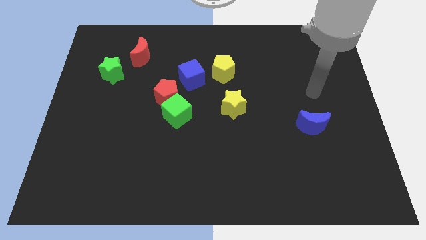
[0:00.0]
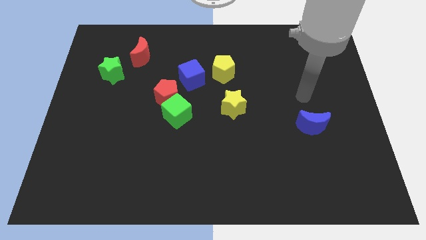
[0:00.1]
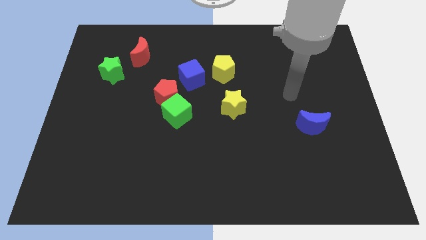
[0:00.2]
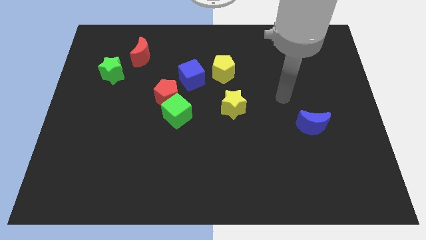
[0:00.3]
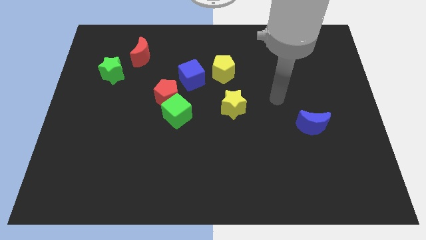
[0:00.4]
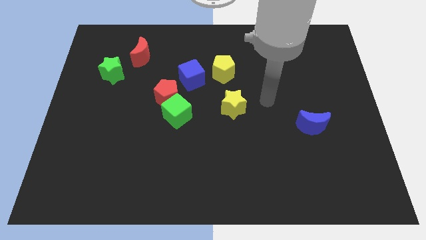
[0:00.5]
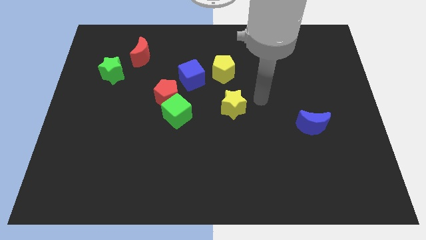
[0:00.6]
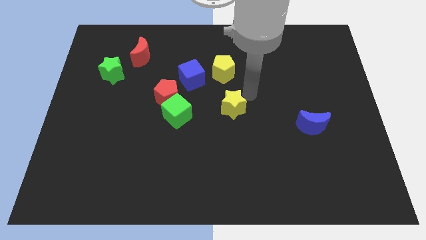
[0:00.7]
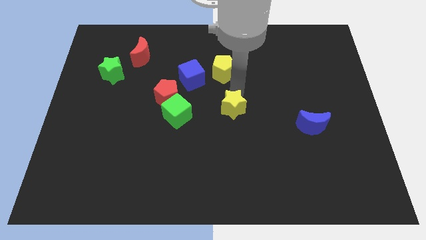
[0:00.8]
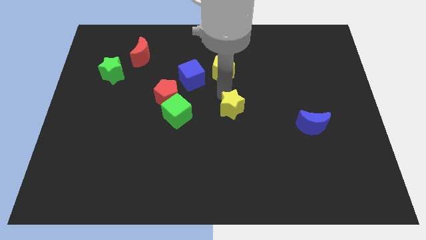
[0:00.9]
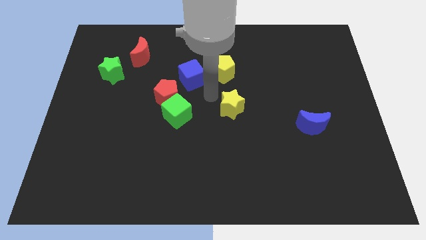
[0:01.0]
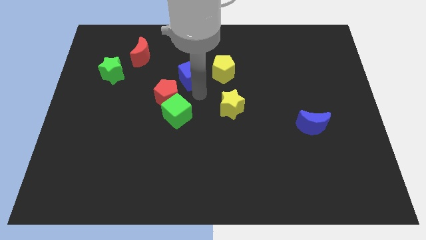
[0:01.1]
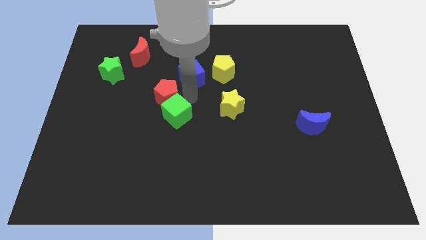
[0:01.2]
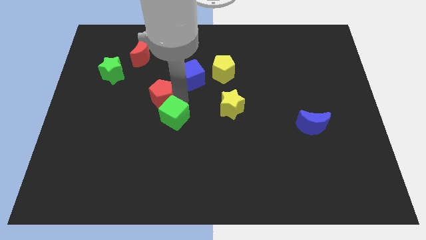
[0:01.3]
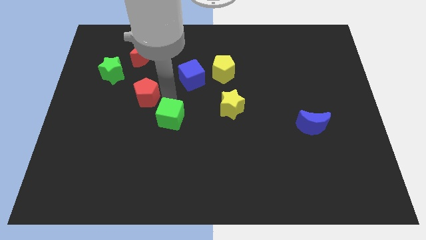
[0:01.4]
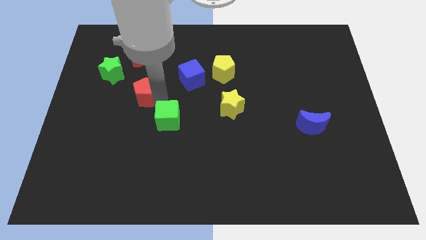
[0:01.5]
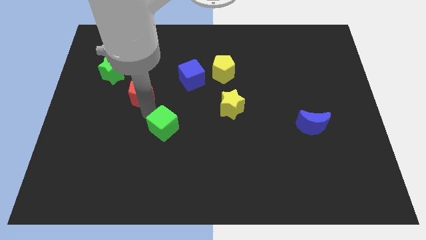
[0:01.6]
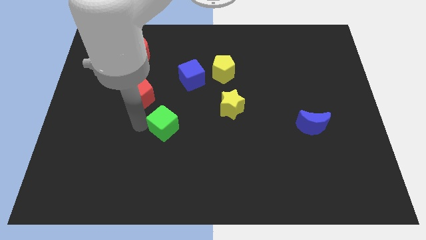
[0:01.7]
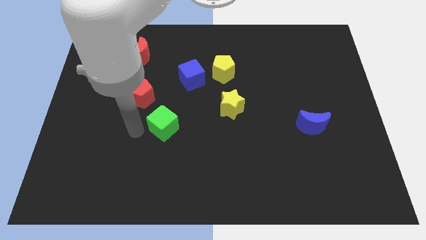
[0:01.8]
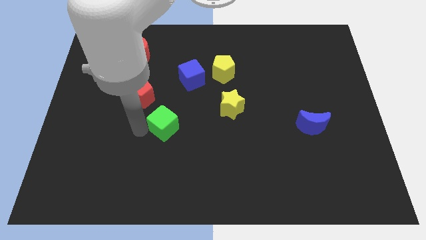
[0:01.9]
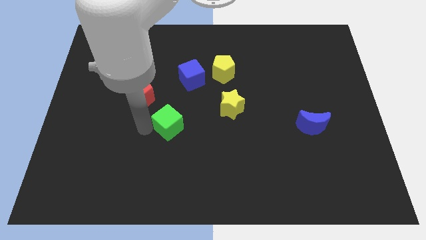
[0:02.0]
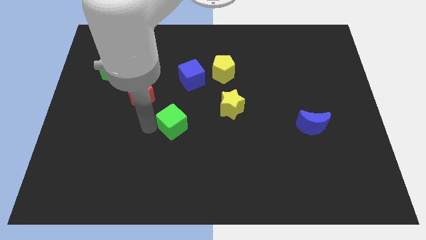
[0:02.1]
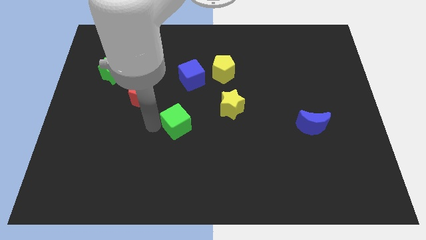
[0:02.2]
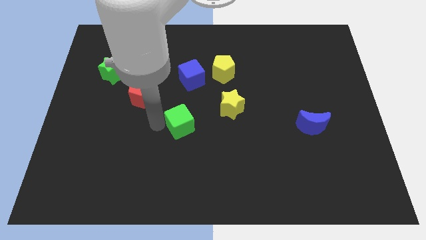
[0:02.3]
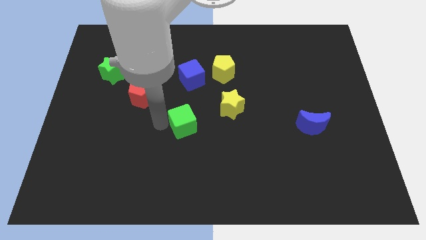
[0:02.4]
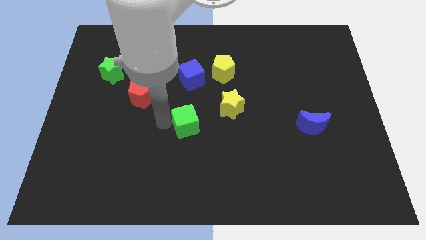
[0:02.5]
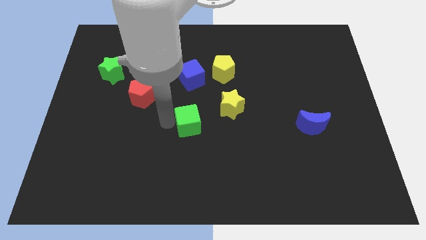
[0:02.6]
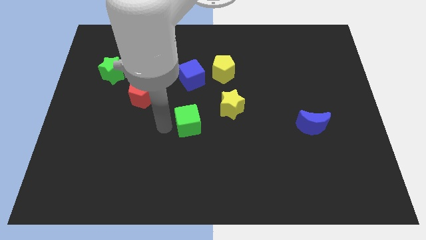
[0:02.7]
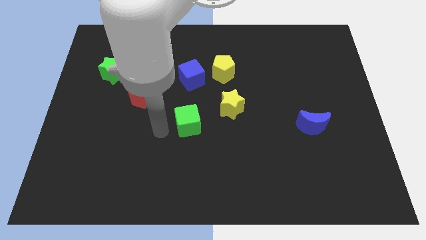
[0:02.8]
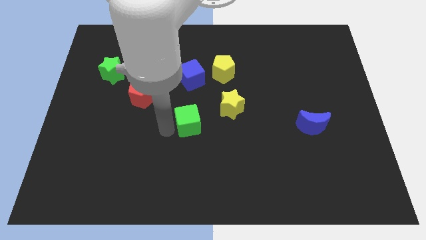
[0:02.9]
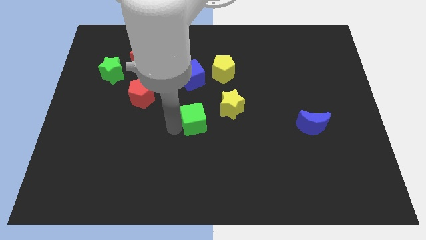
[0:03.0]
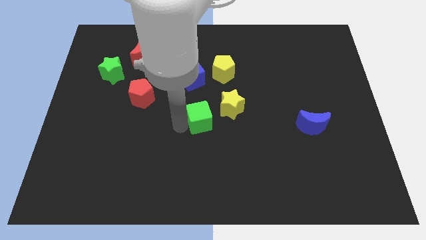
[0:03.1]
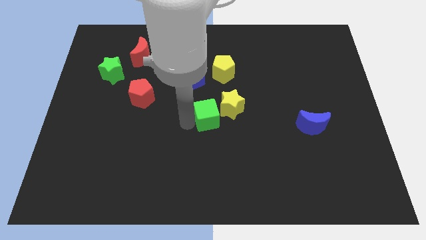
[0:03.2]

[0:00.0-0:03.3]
slightly push the green cube to the right

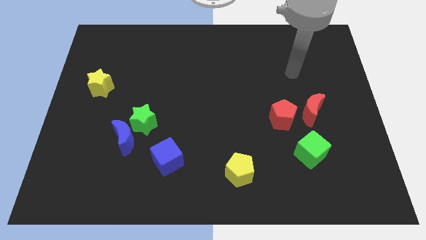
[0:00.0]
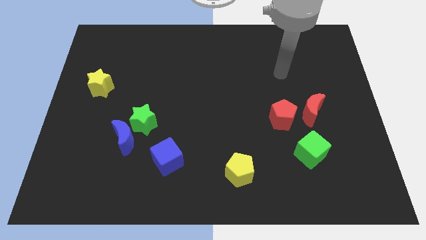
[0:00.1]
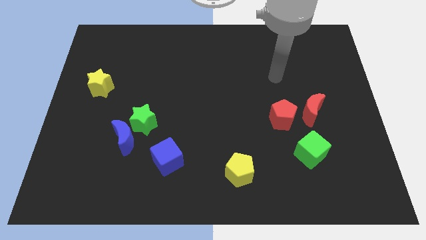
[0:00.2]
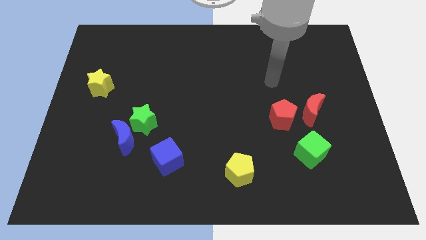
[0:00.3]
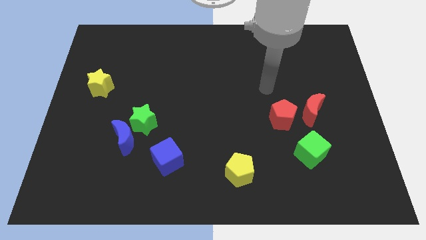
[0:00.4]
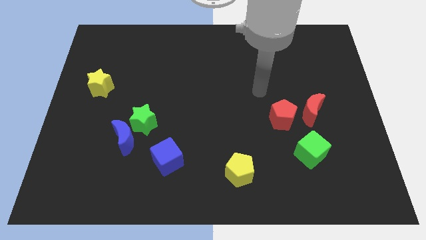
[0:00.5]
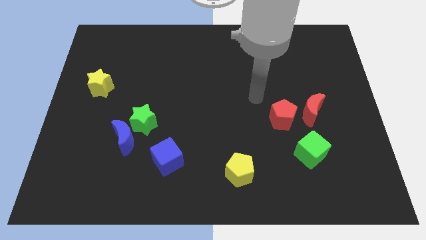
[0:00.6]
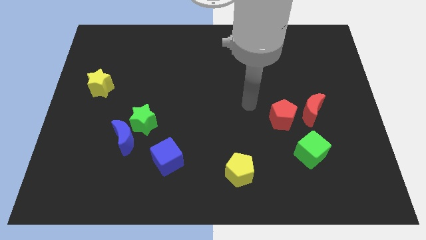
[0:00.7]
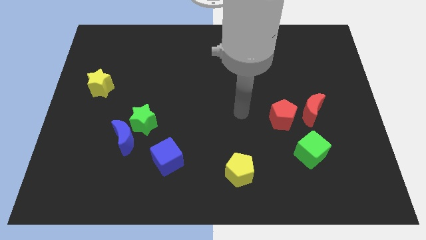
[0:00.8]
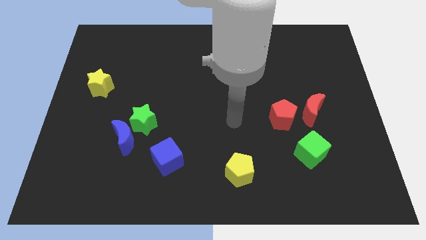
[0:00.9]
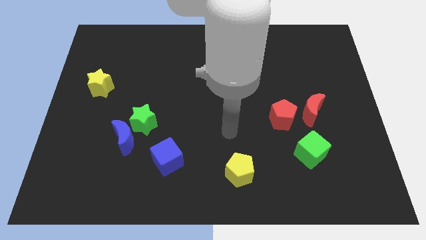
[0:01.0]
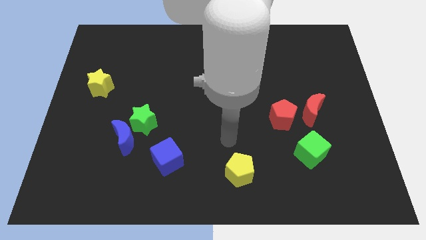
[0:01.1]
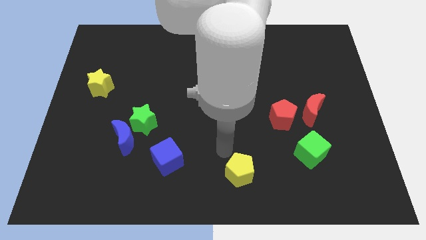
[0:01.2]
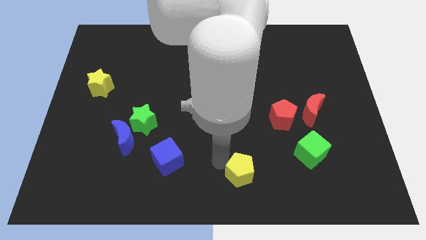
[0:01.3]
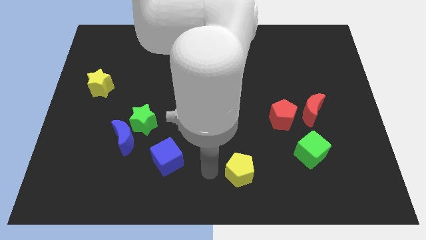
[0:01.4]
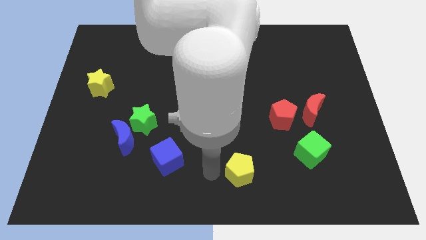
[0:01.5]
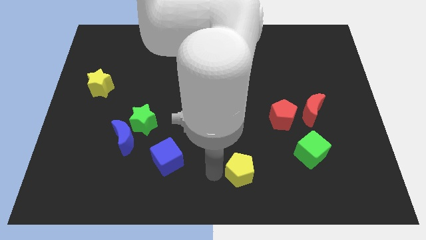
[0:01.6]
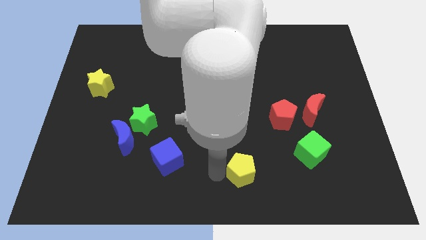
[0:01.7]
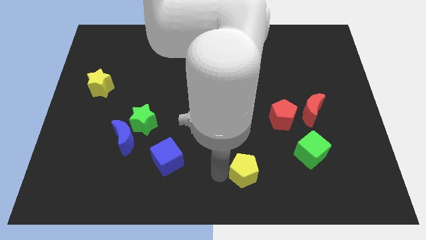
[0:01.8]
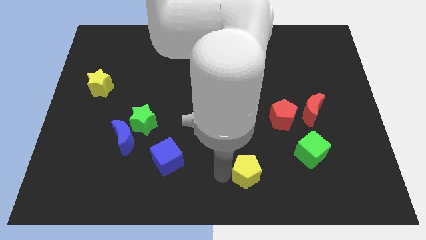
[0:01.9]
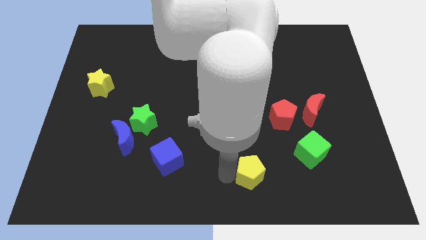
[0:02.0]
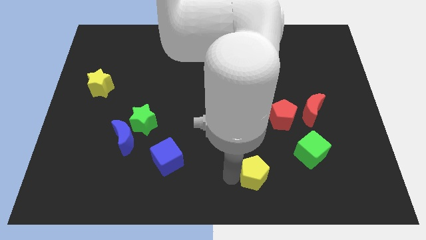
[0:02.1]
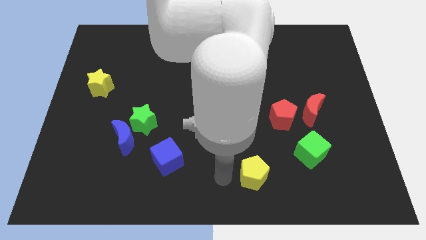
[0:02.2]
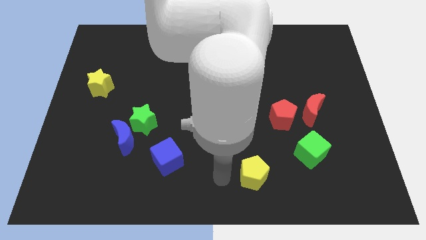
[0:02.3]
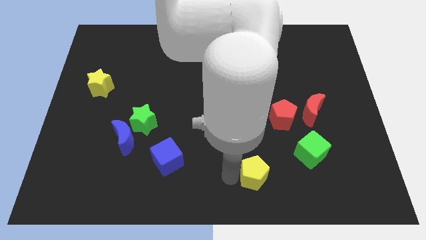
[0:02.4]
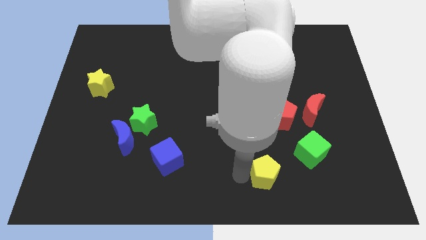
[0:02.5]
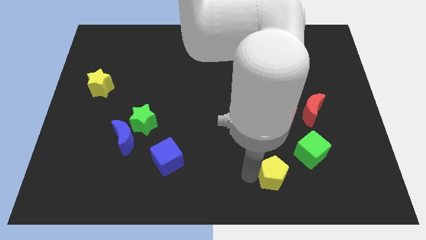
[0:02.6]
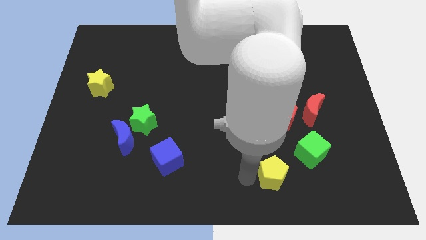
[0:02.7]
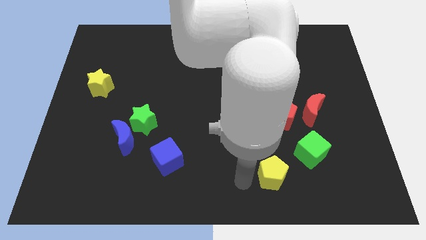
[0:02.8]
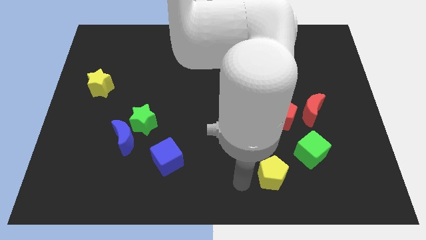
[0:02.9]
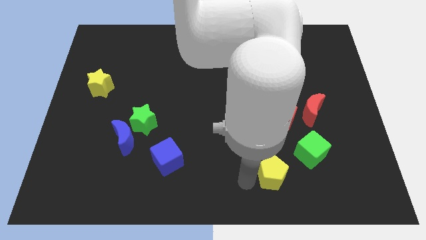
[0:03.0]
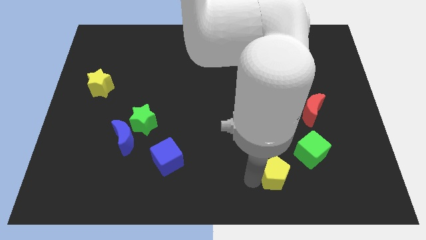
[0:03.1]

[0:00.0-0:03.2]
slightly move the yellow pentagon to the right

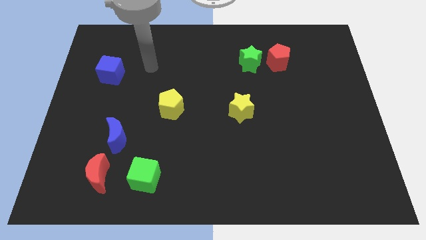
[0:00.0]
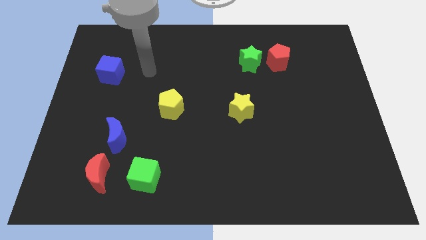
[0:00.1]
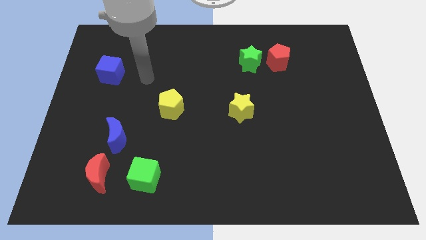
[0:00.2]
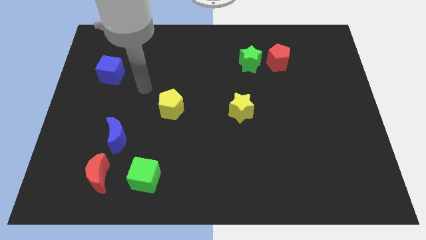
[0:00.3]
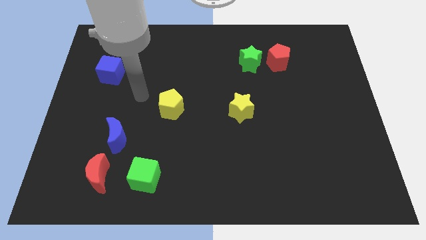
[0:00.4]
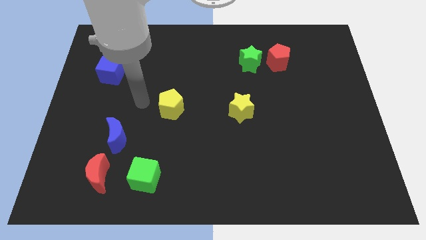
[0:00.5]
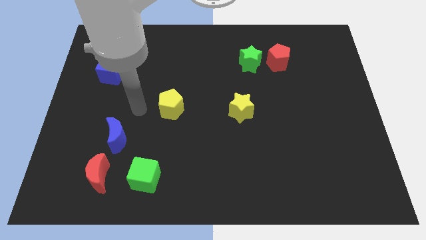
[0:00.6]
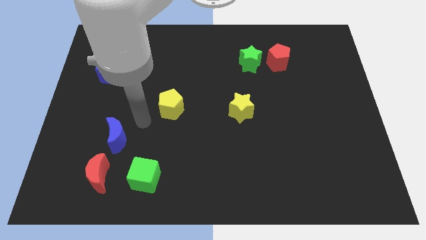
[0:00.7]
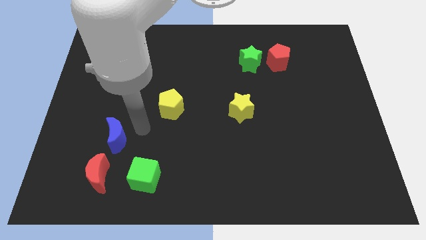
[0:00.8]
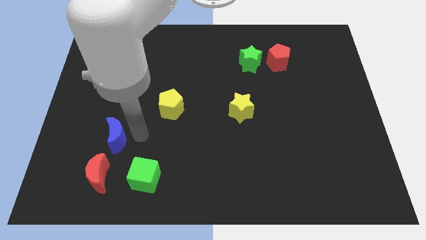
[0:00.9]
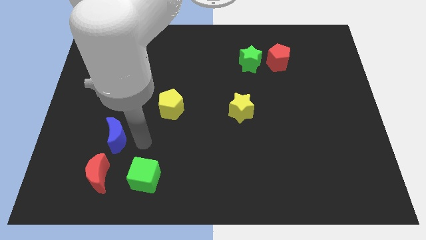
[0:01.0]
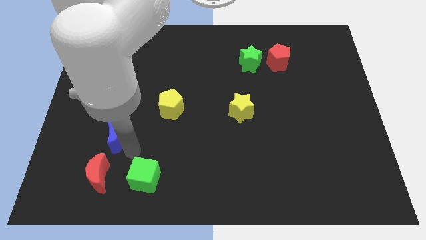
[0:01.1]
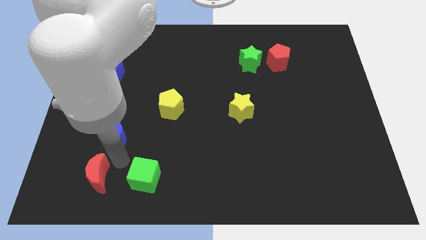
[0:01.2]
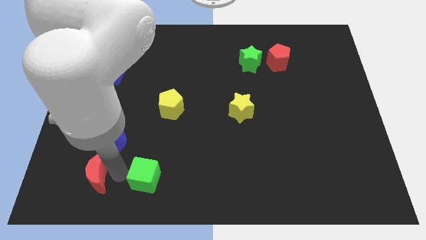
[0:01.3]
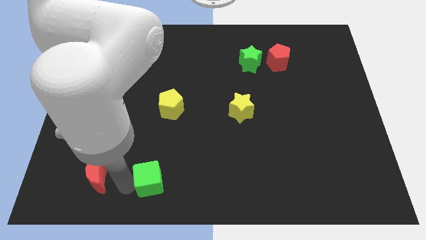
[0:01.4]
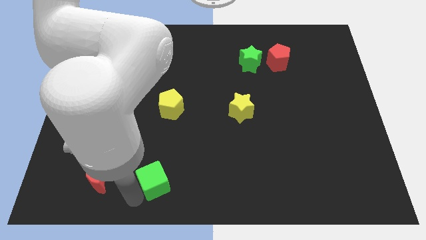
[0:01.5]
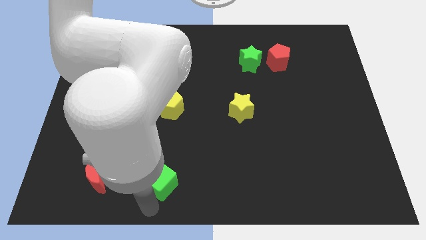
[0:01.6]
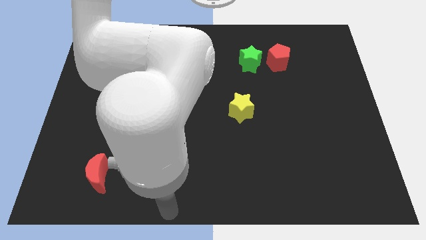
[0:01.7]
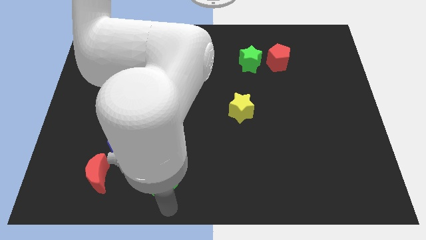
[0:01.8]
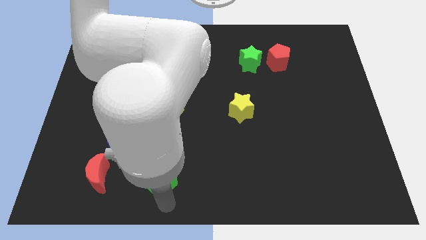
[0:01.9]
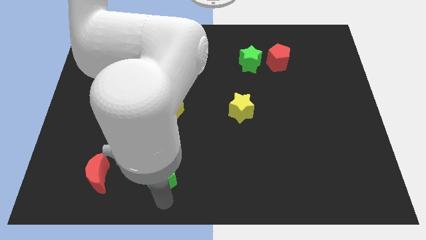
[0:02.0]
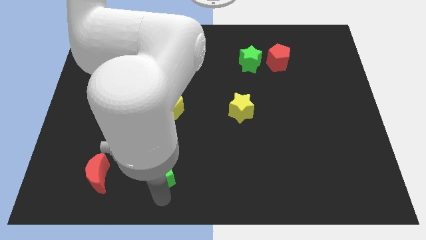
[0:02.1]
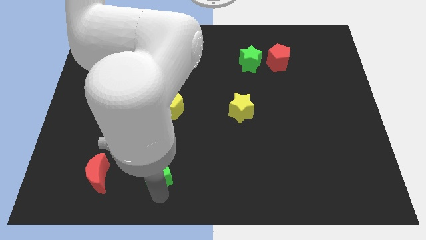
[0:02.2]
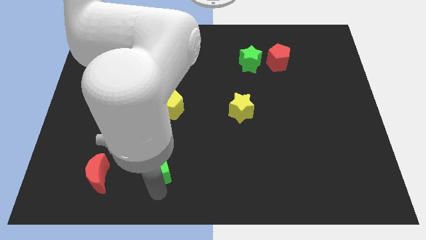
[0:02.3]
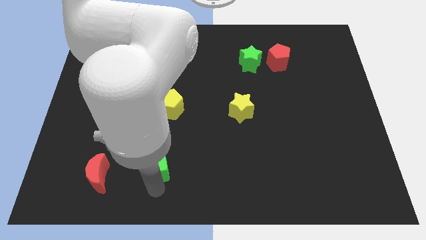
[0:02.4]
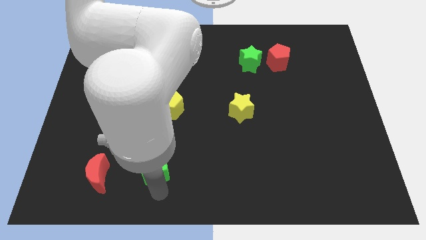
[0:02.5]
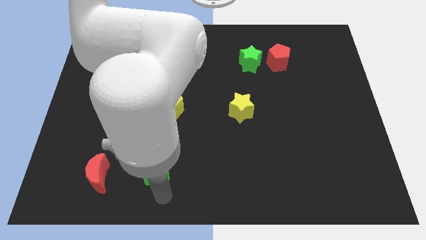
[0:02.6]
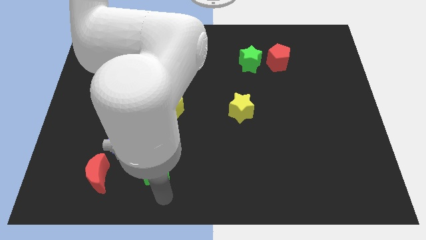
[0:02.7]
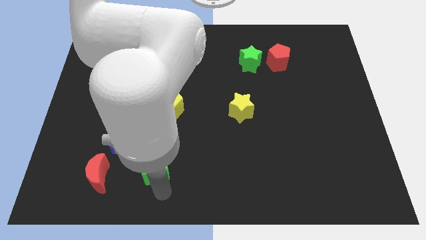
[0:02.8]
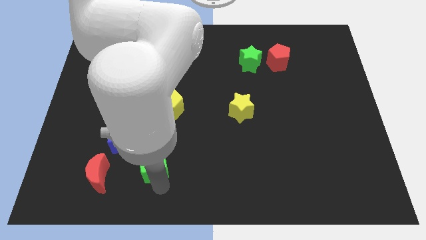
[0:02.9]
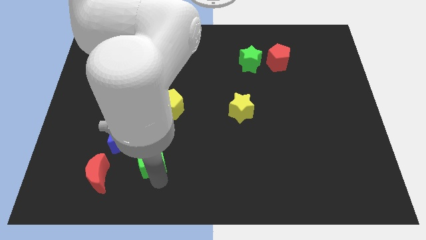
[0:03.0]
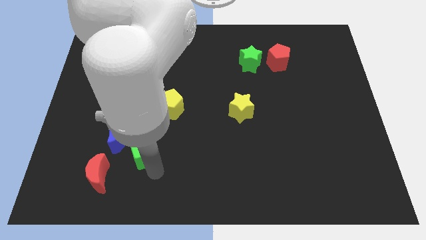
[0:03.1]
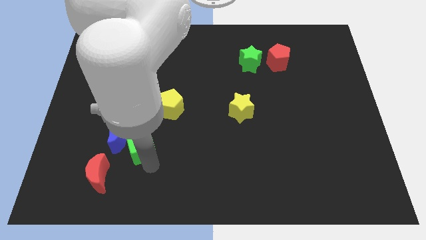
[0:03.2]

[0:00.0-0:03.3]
slightly move the green cube up
